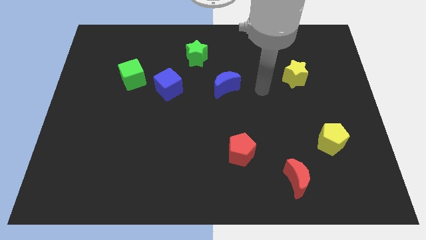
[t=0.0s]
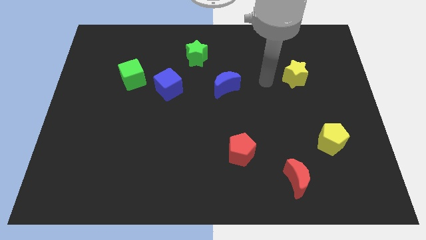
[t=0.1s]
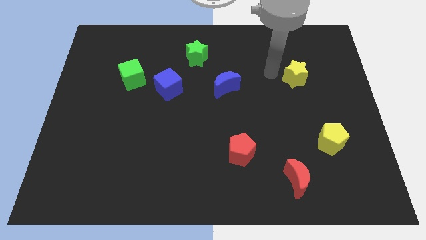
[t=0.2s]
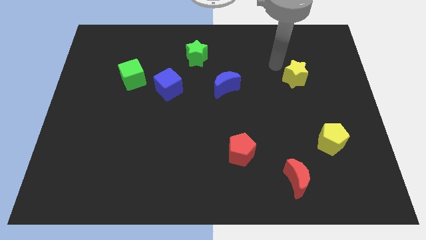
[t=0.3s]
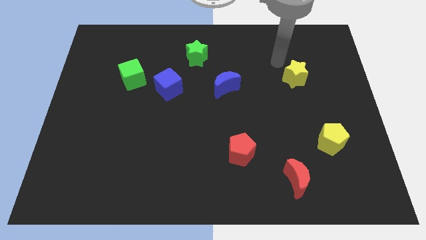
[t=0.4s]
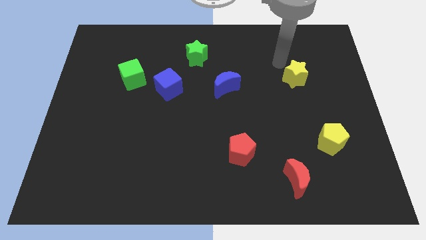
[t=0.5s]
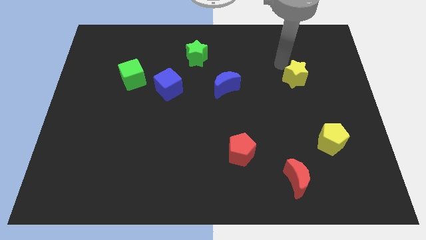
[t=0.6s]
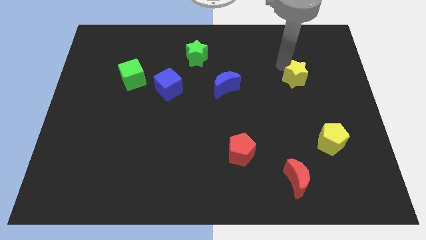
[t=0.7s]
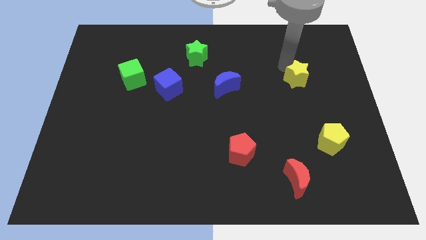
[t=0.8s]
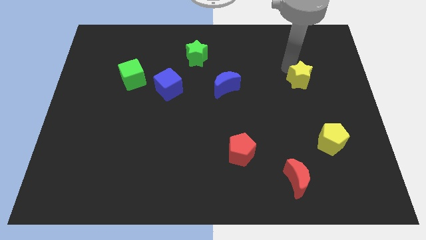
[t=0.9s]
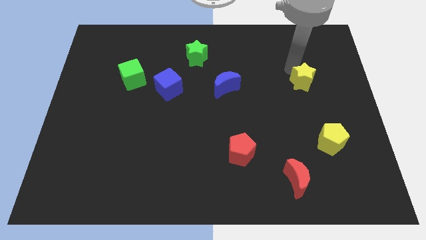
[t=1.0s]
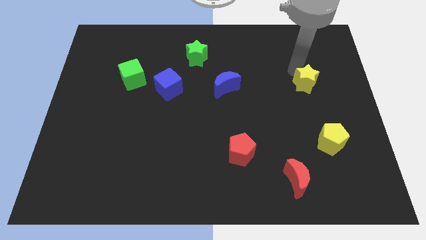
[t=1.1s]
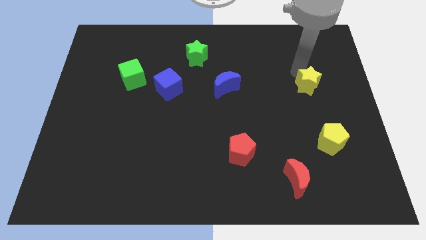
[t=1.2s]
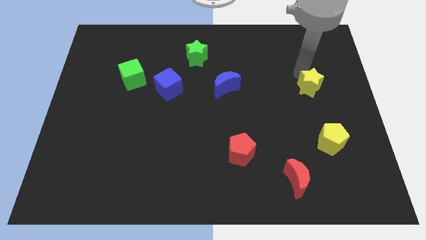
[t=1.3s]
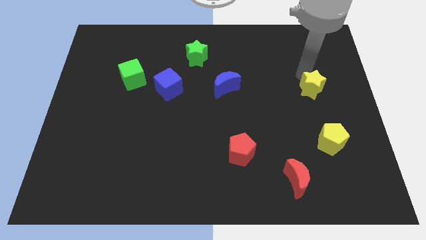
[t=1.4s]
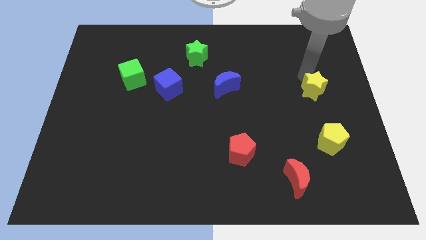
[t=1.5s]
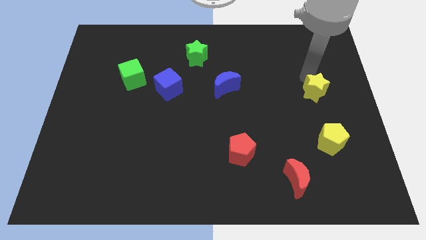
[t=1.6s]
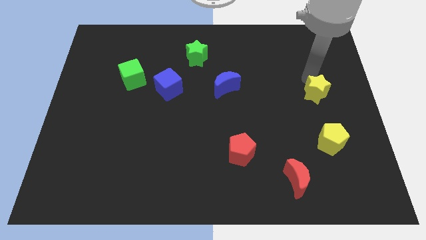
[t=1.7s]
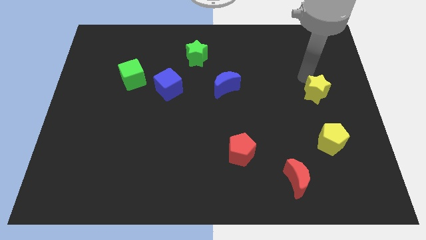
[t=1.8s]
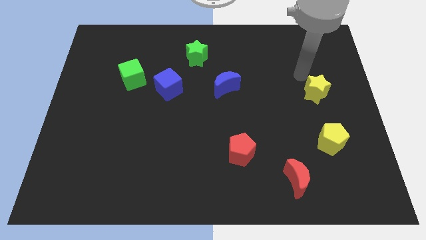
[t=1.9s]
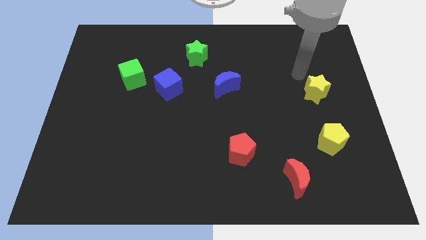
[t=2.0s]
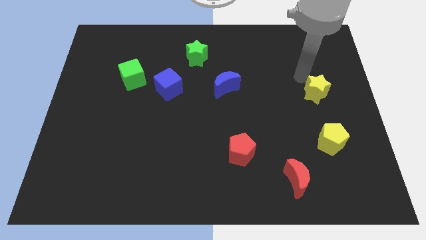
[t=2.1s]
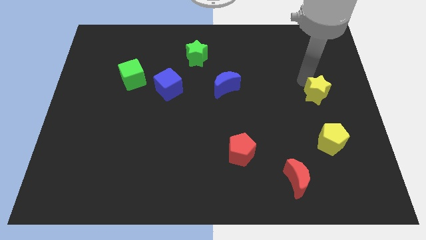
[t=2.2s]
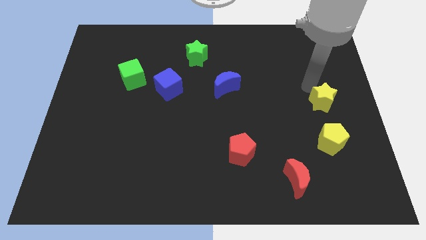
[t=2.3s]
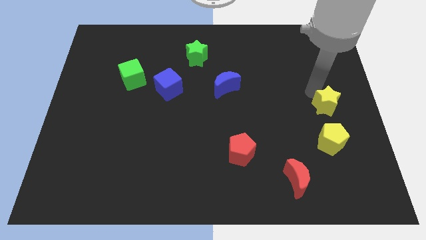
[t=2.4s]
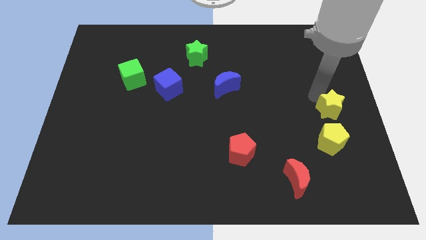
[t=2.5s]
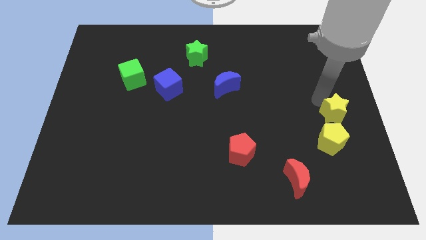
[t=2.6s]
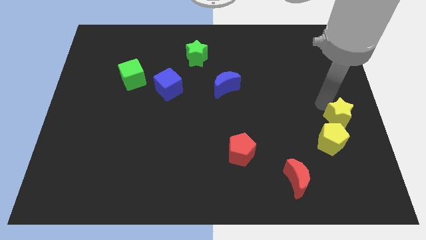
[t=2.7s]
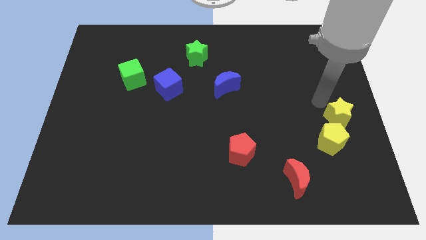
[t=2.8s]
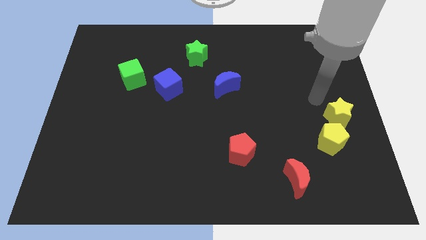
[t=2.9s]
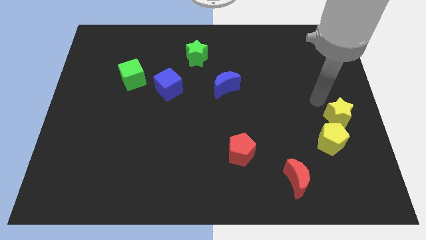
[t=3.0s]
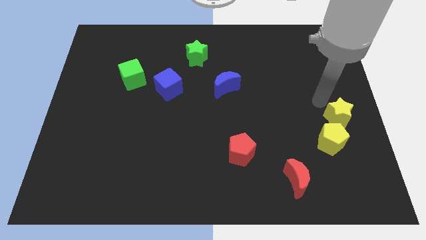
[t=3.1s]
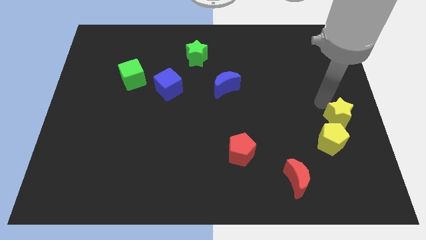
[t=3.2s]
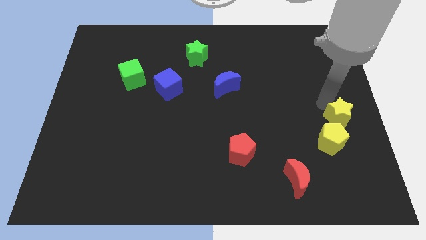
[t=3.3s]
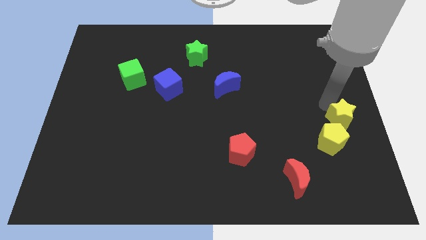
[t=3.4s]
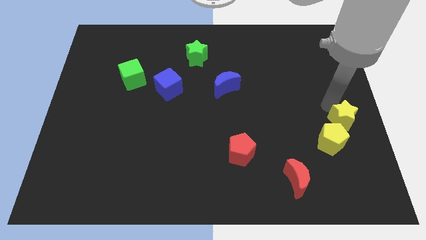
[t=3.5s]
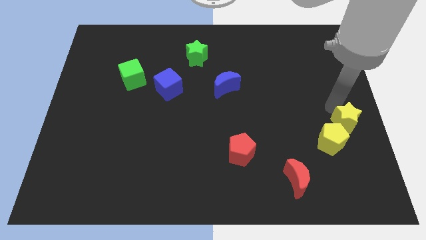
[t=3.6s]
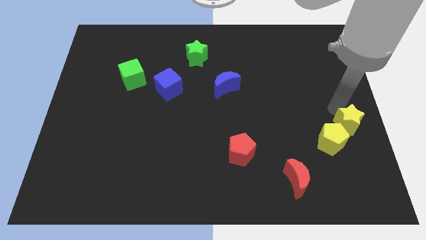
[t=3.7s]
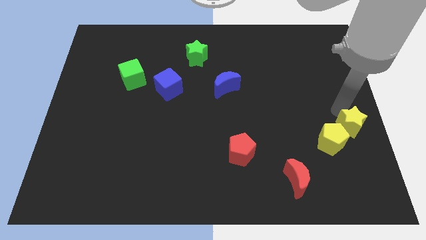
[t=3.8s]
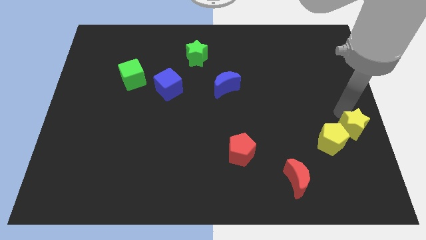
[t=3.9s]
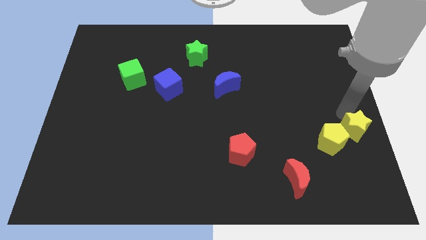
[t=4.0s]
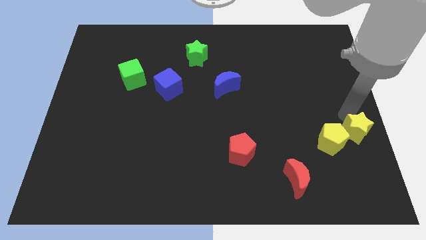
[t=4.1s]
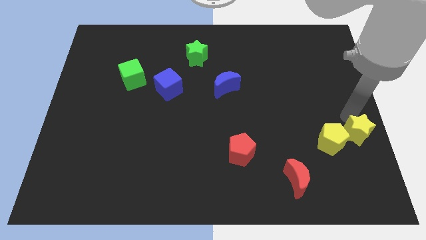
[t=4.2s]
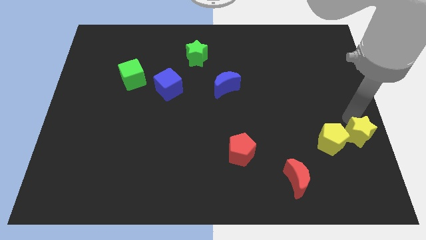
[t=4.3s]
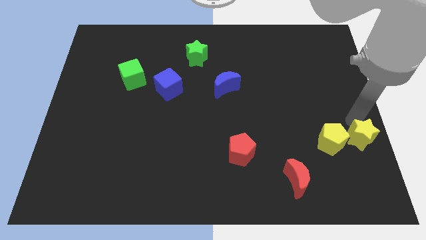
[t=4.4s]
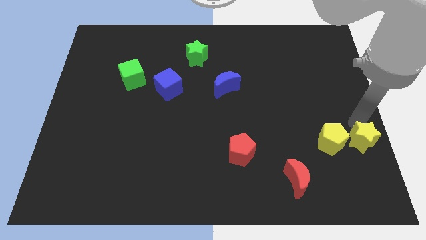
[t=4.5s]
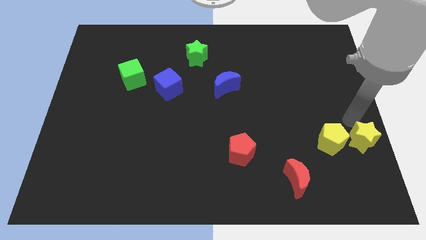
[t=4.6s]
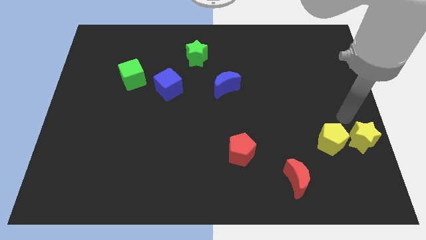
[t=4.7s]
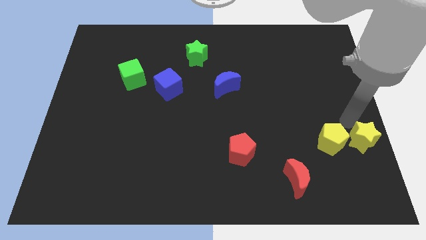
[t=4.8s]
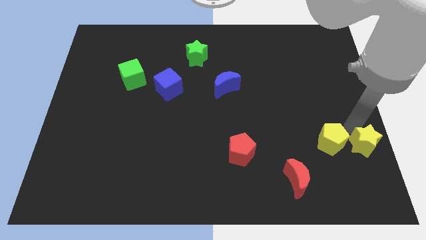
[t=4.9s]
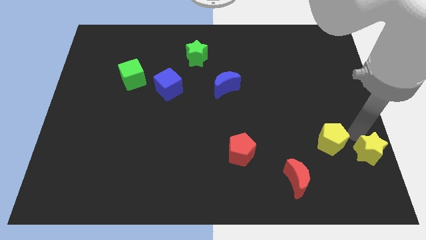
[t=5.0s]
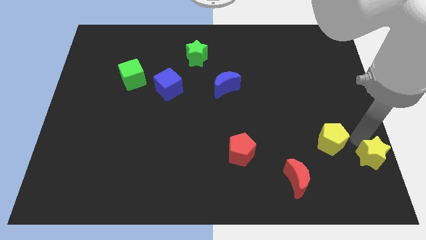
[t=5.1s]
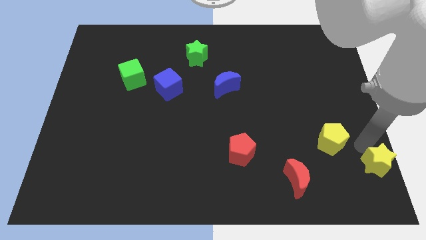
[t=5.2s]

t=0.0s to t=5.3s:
push the yellow star to the bottom right of the board
